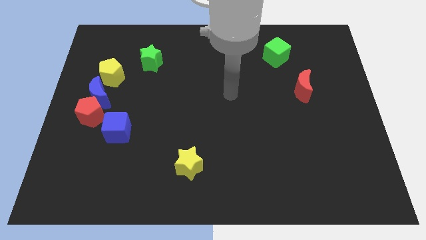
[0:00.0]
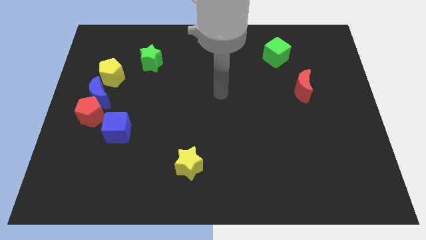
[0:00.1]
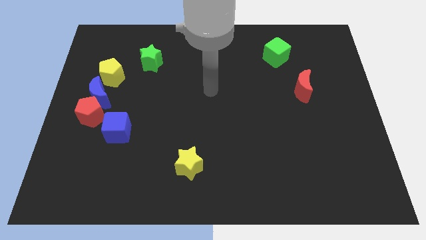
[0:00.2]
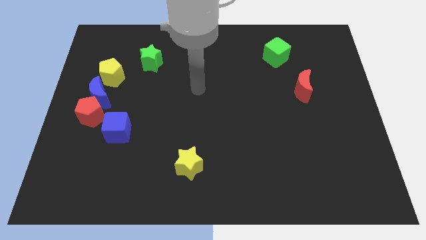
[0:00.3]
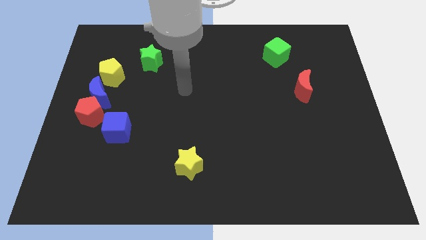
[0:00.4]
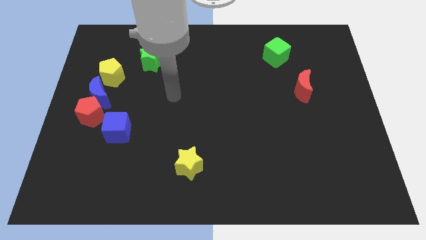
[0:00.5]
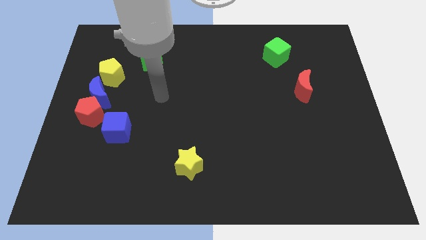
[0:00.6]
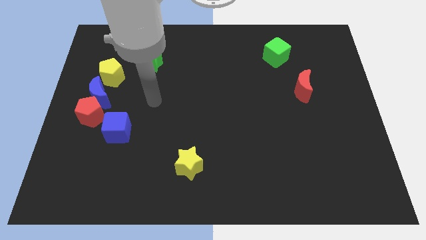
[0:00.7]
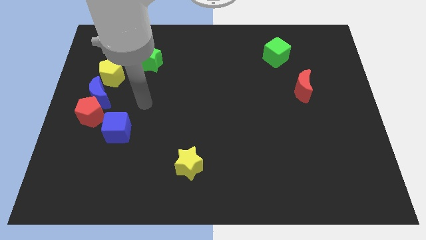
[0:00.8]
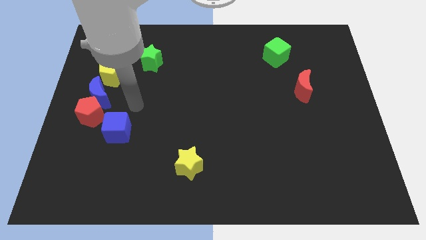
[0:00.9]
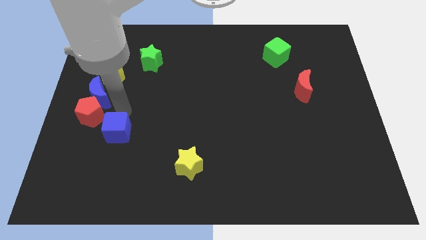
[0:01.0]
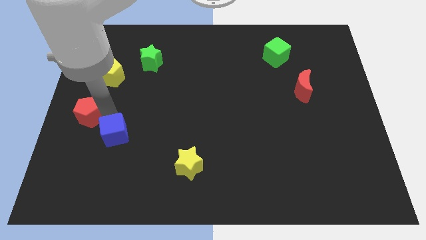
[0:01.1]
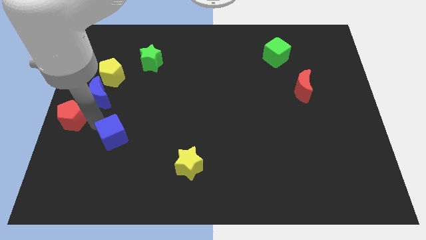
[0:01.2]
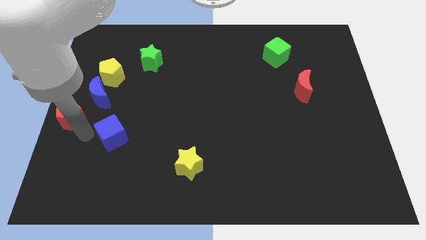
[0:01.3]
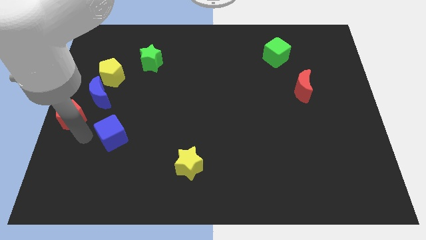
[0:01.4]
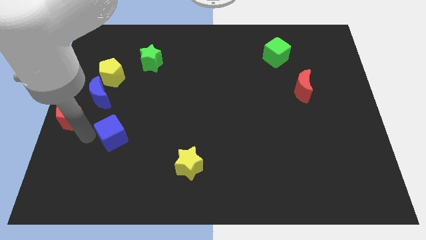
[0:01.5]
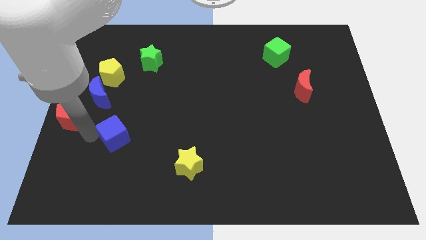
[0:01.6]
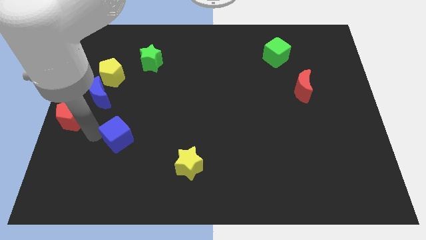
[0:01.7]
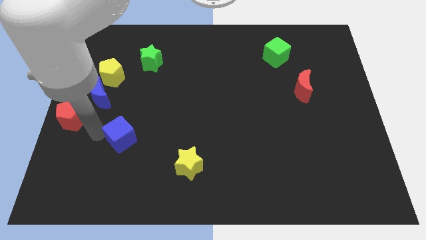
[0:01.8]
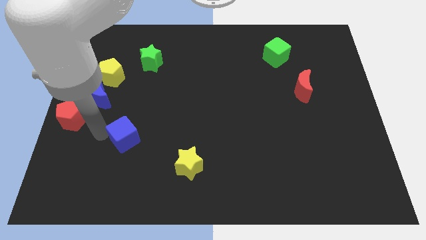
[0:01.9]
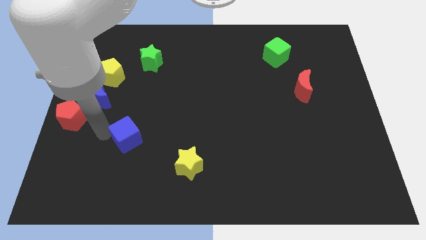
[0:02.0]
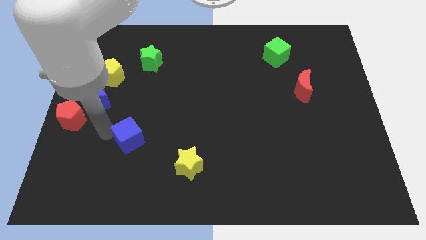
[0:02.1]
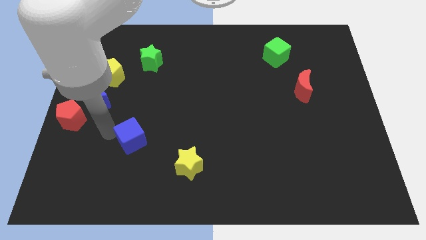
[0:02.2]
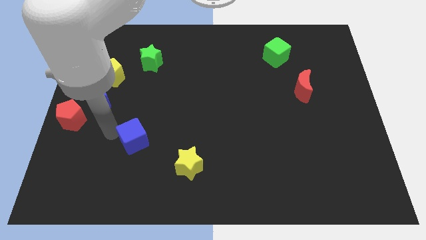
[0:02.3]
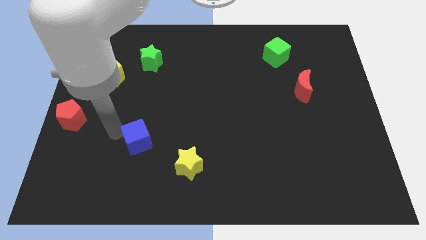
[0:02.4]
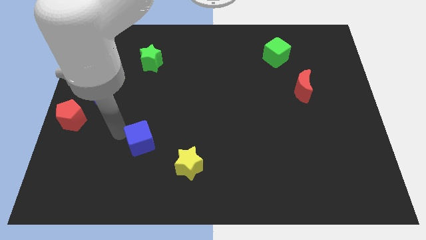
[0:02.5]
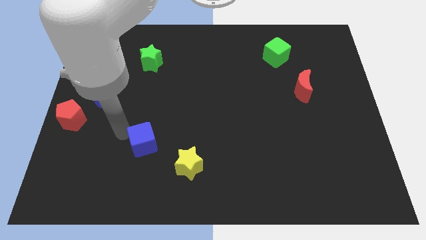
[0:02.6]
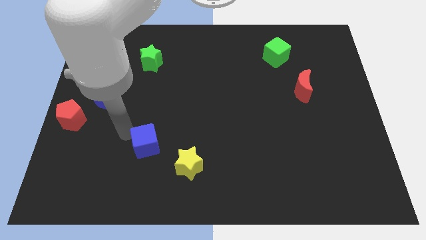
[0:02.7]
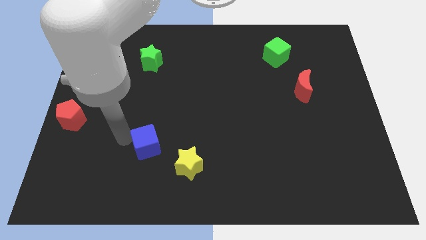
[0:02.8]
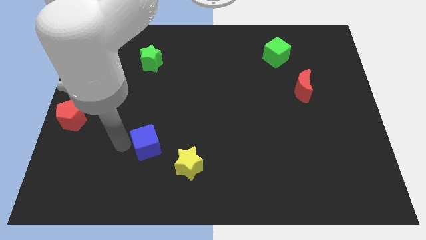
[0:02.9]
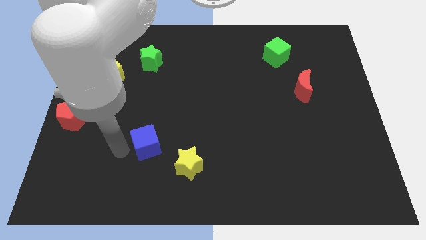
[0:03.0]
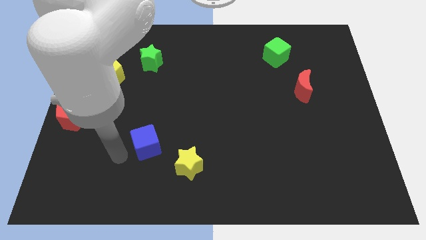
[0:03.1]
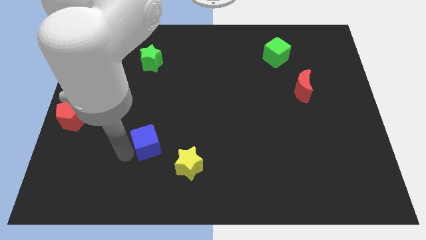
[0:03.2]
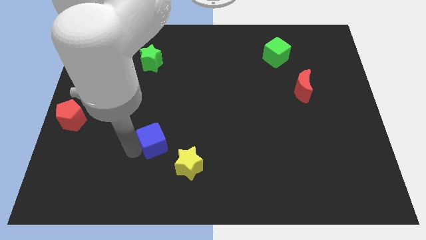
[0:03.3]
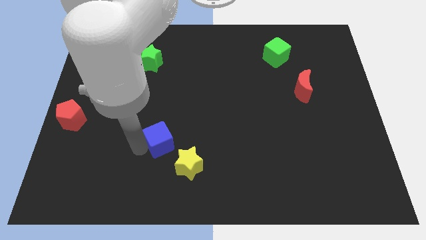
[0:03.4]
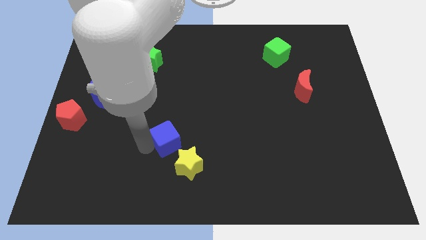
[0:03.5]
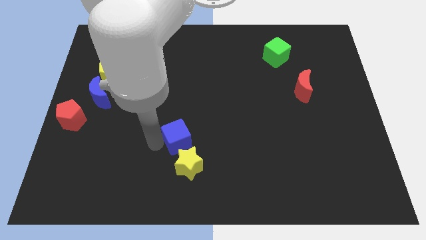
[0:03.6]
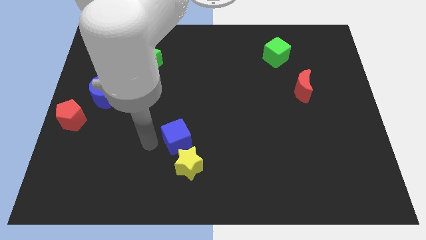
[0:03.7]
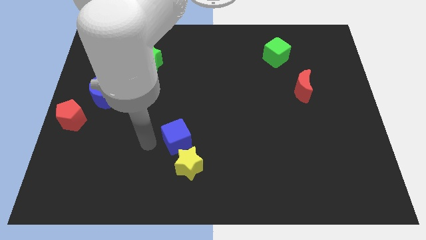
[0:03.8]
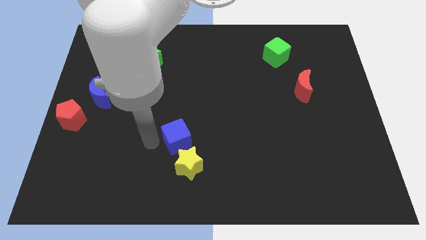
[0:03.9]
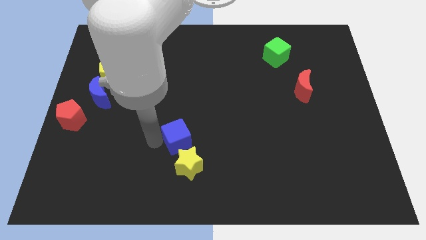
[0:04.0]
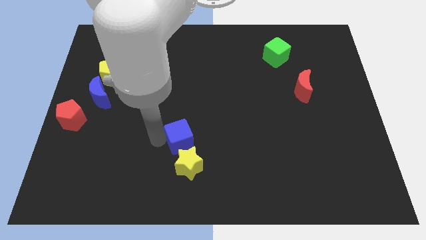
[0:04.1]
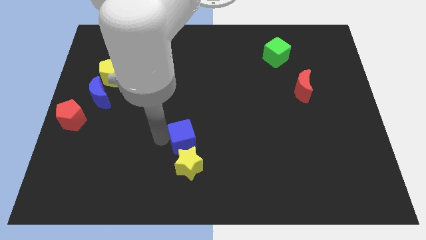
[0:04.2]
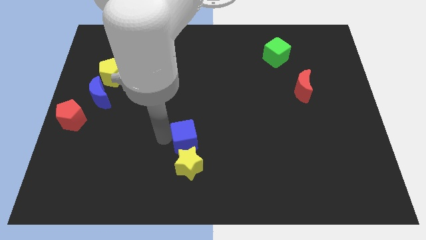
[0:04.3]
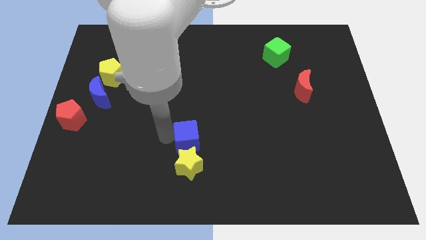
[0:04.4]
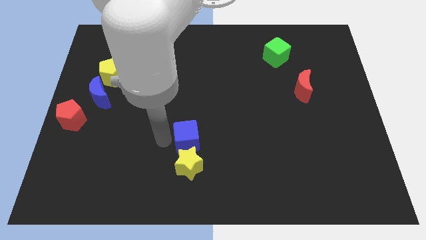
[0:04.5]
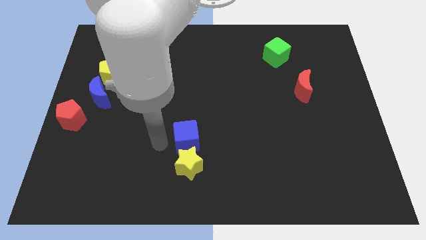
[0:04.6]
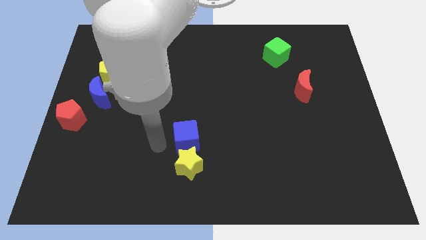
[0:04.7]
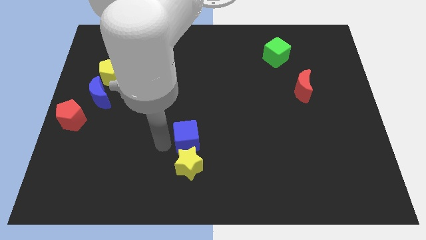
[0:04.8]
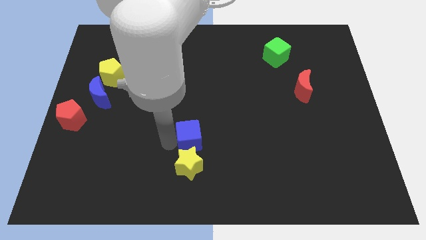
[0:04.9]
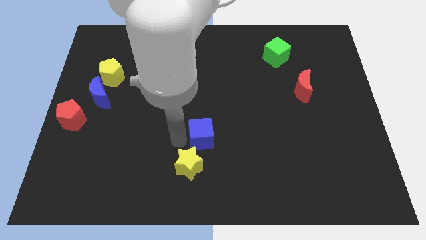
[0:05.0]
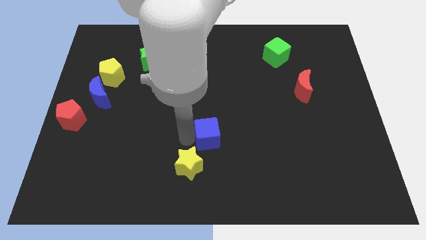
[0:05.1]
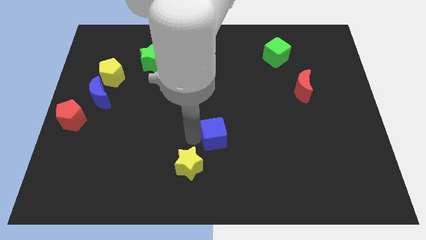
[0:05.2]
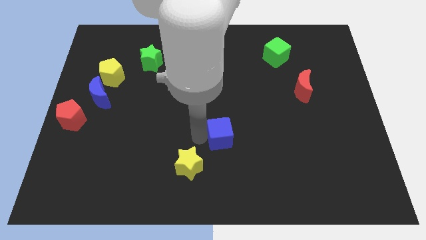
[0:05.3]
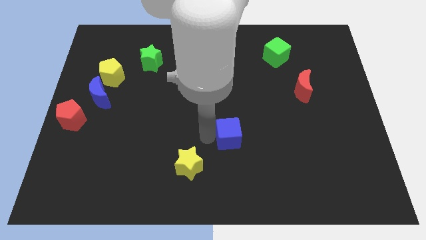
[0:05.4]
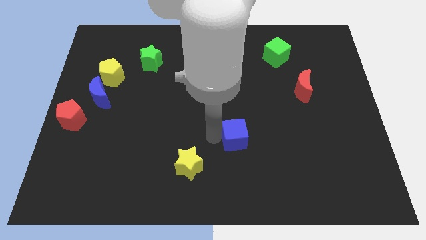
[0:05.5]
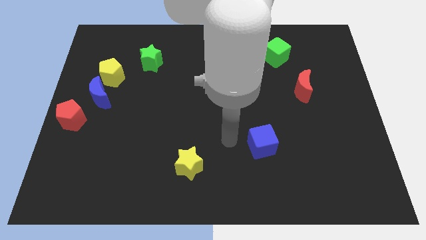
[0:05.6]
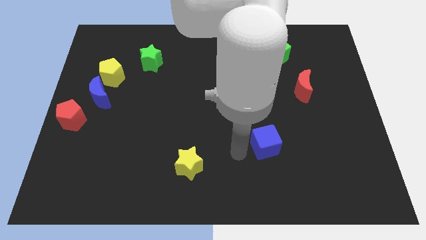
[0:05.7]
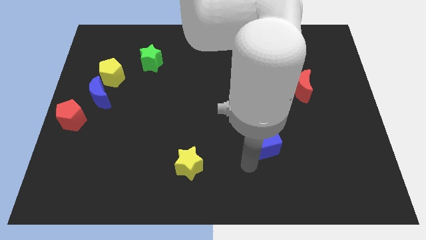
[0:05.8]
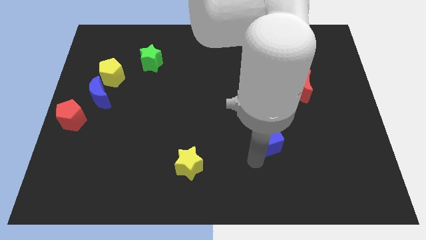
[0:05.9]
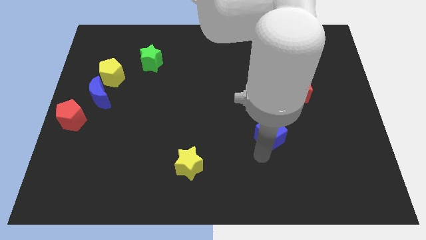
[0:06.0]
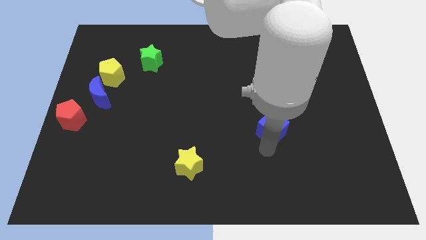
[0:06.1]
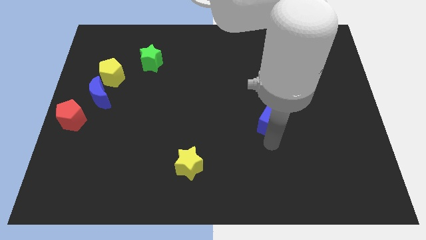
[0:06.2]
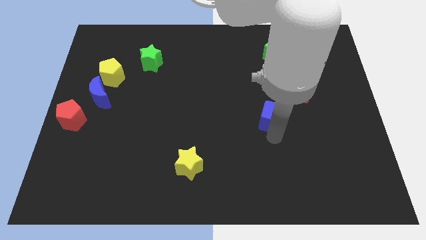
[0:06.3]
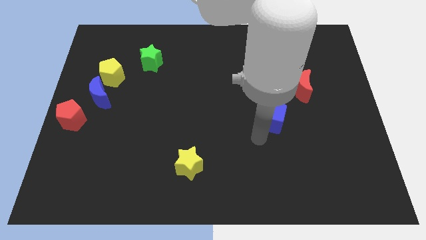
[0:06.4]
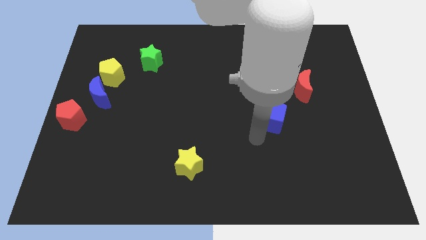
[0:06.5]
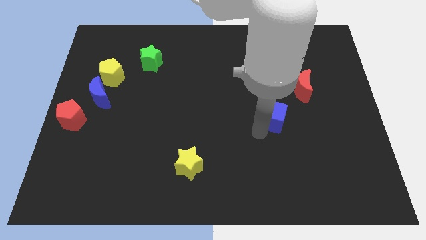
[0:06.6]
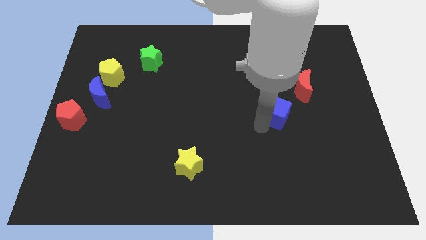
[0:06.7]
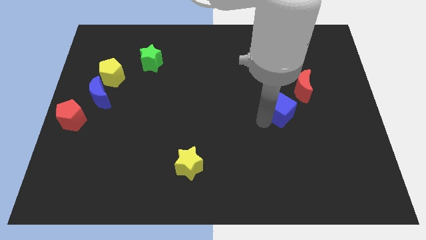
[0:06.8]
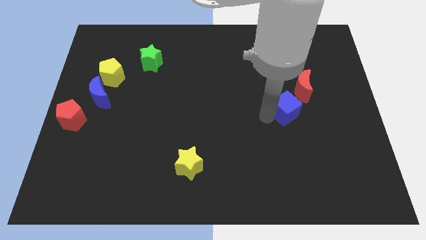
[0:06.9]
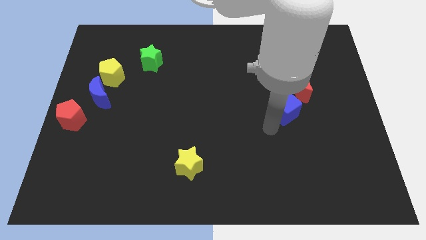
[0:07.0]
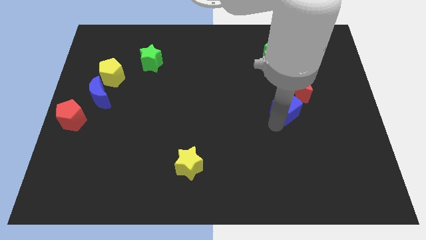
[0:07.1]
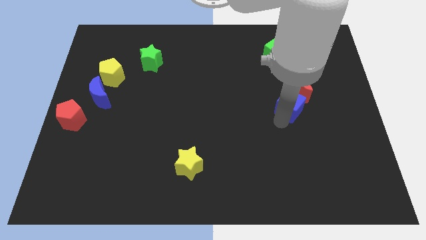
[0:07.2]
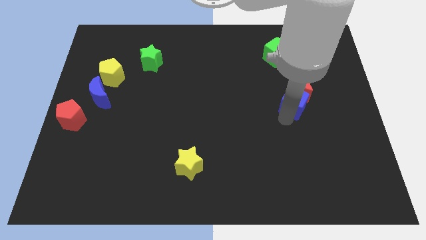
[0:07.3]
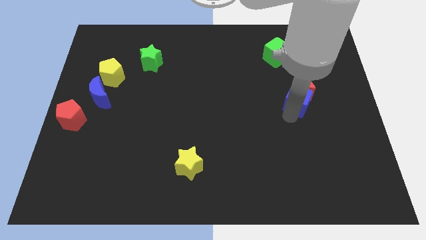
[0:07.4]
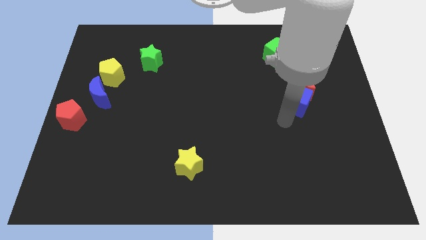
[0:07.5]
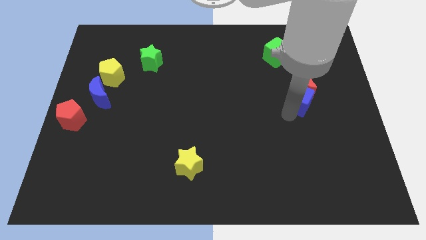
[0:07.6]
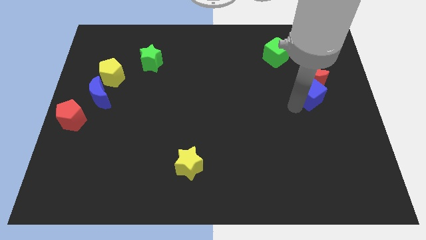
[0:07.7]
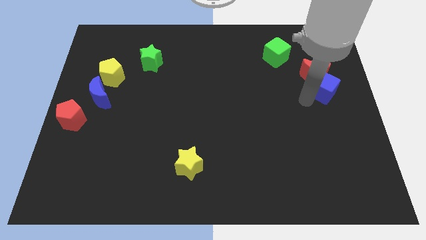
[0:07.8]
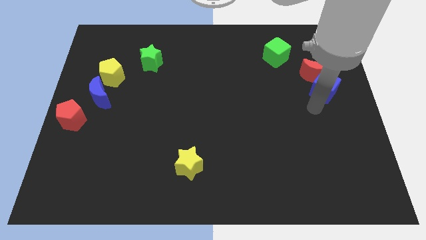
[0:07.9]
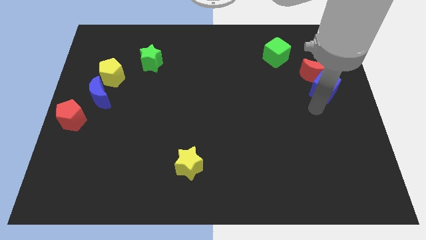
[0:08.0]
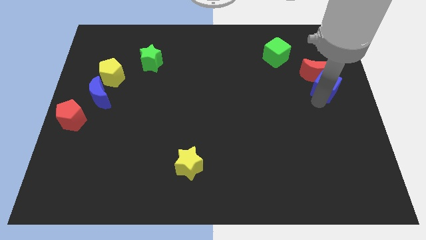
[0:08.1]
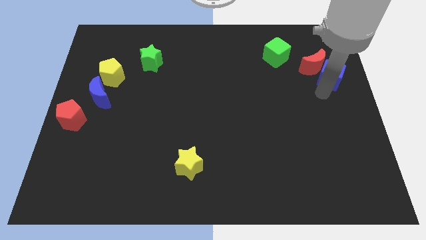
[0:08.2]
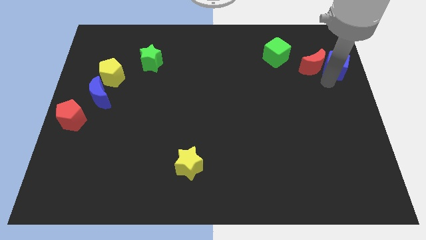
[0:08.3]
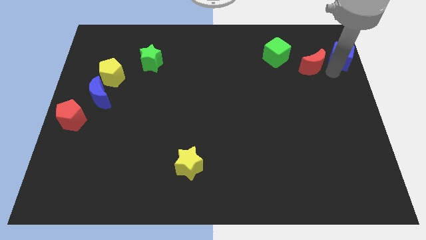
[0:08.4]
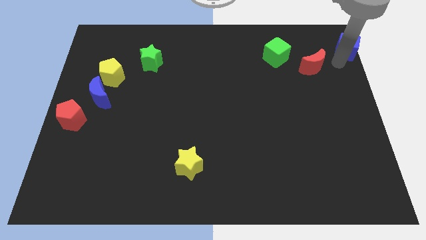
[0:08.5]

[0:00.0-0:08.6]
slide the blue cube to the top right of the board
